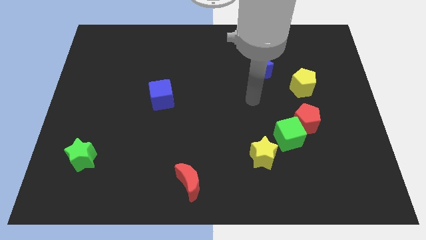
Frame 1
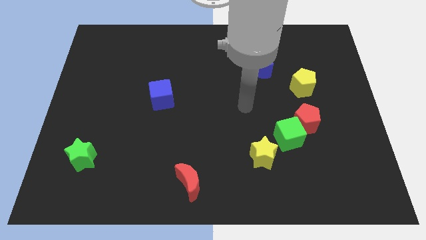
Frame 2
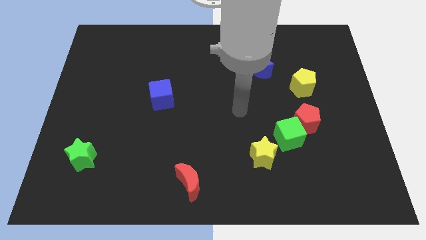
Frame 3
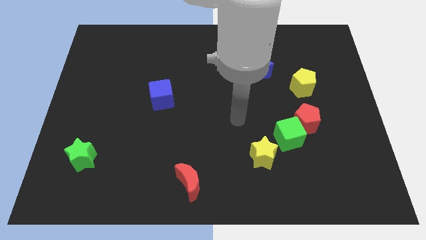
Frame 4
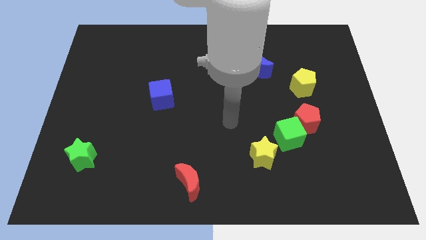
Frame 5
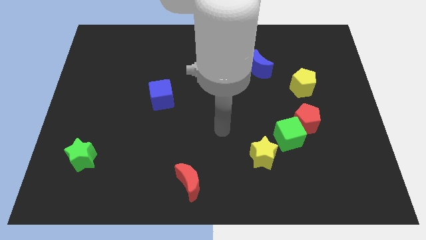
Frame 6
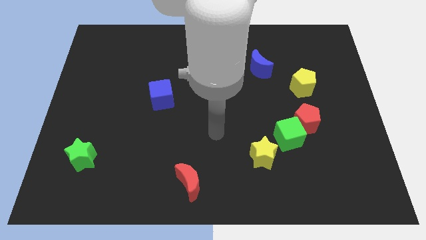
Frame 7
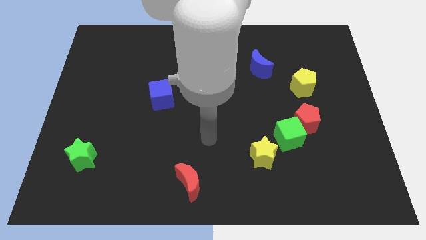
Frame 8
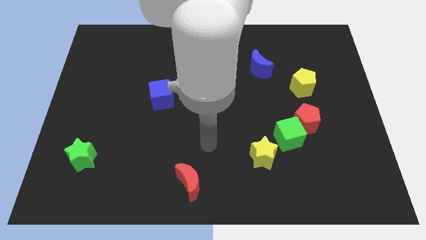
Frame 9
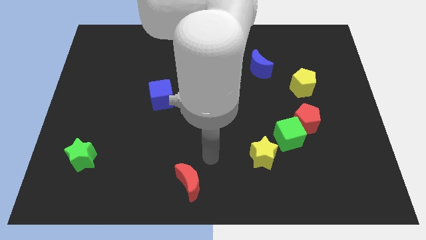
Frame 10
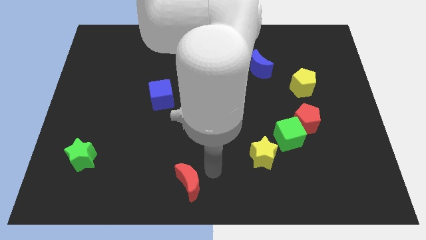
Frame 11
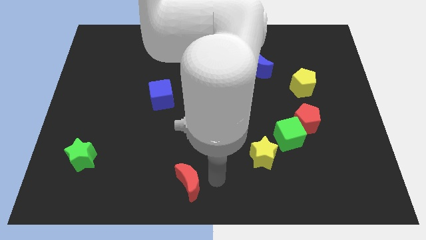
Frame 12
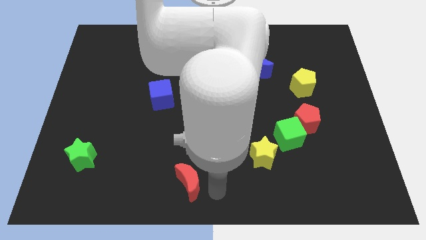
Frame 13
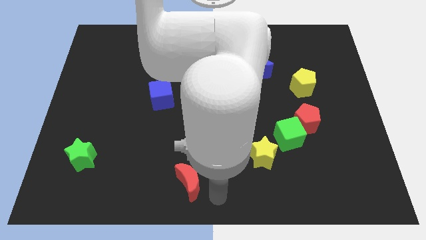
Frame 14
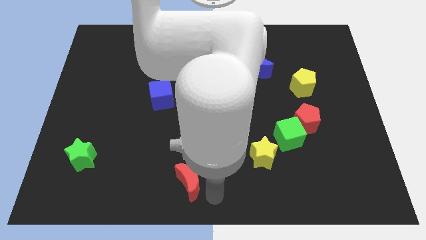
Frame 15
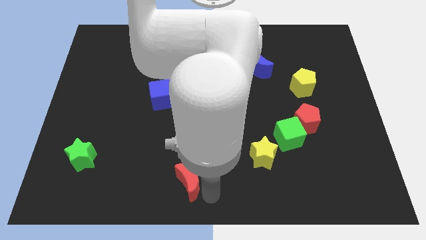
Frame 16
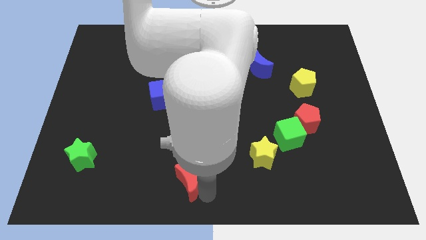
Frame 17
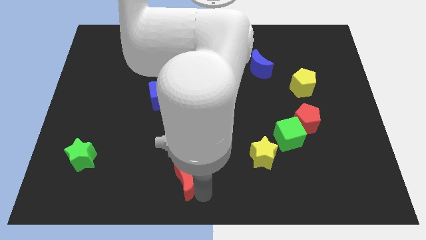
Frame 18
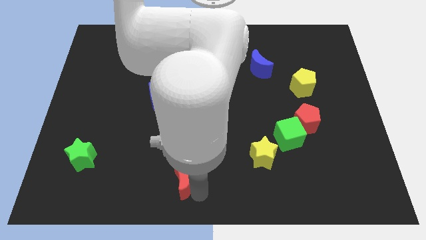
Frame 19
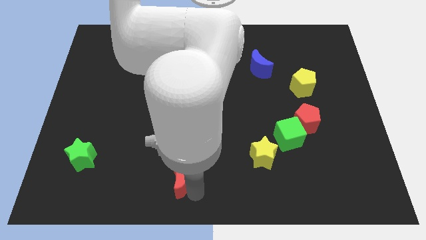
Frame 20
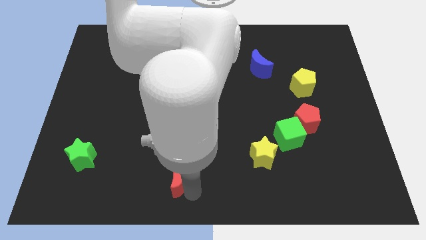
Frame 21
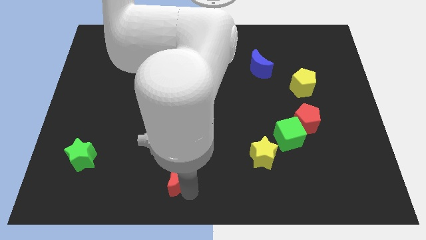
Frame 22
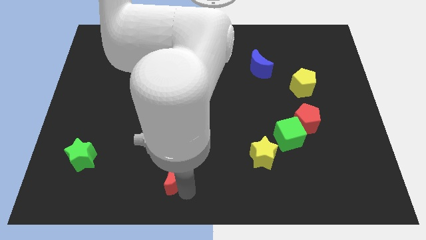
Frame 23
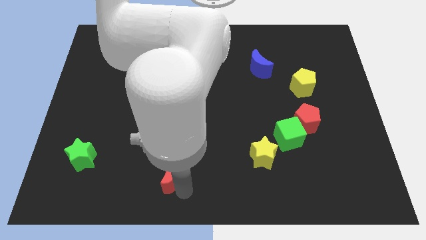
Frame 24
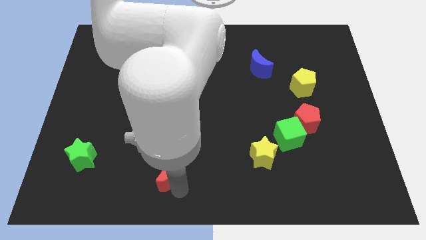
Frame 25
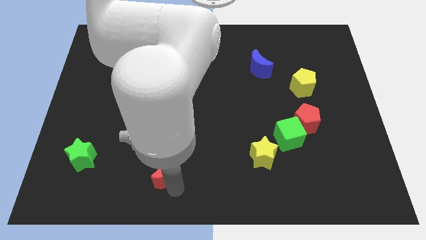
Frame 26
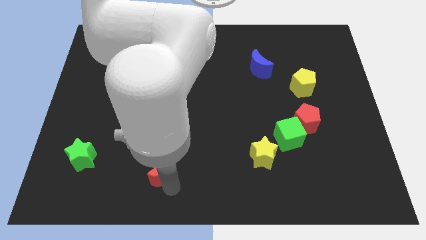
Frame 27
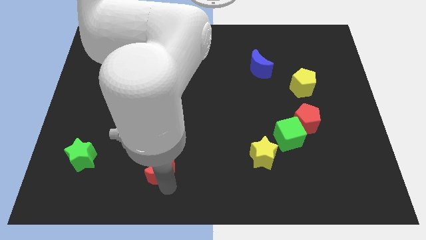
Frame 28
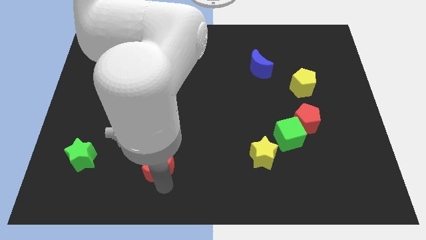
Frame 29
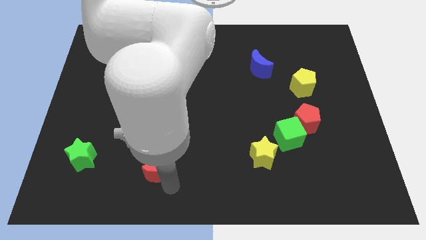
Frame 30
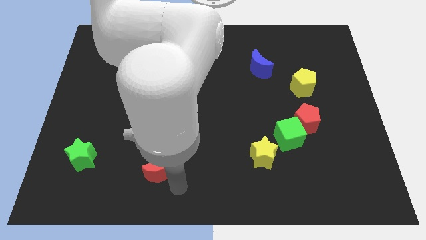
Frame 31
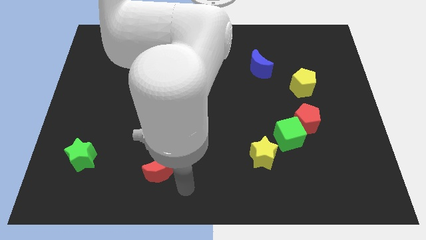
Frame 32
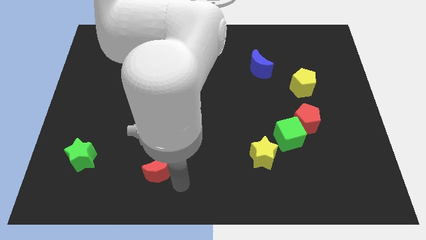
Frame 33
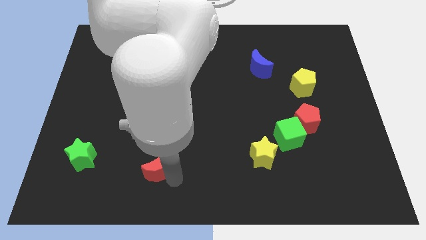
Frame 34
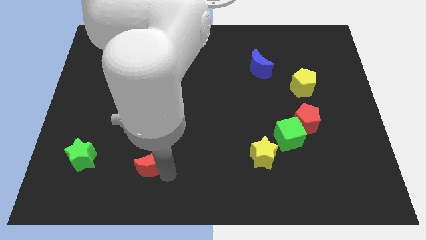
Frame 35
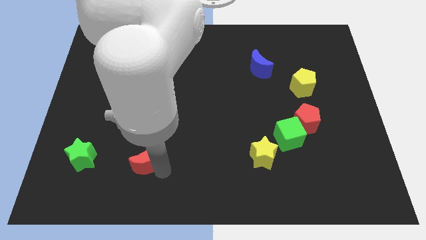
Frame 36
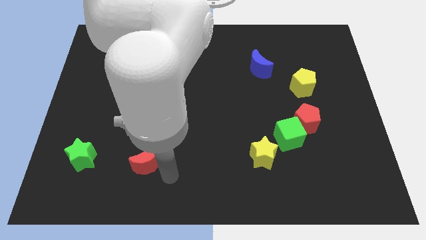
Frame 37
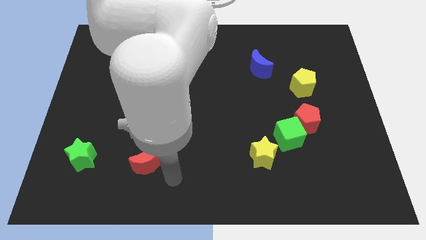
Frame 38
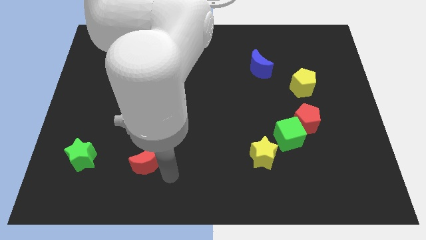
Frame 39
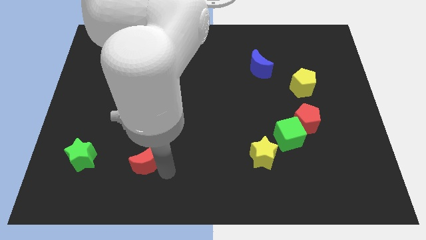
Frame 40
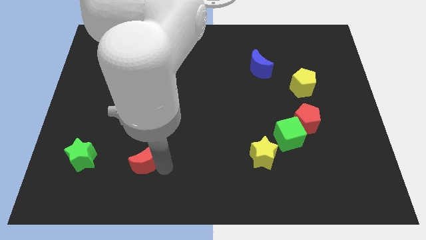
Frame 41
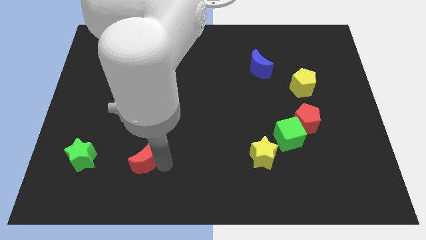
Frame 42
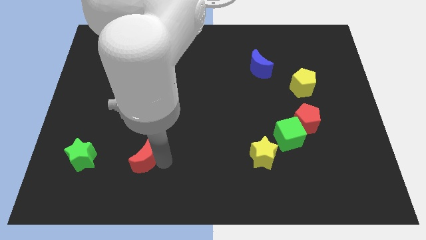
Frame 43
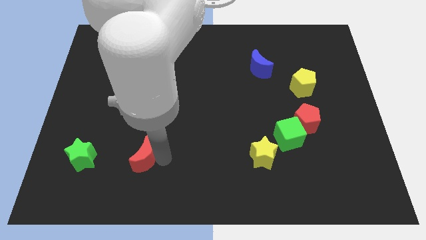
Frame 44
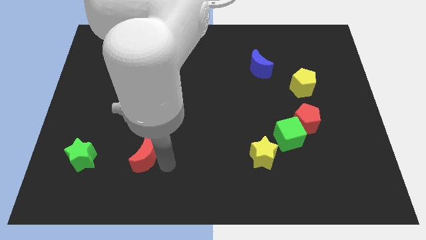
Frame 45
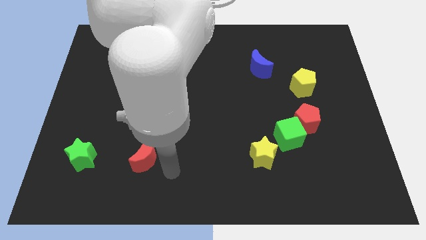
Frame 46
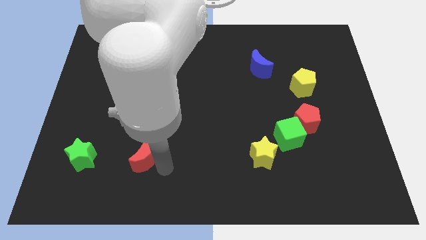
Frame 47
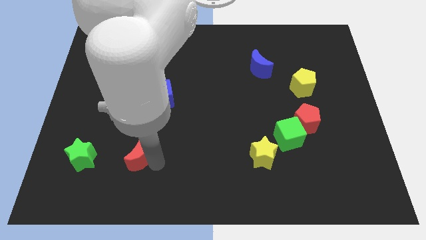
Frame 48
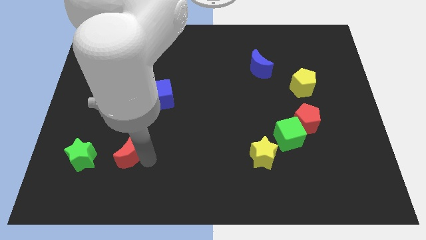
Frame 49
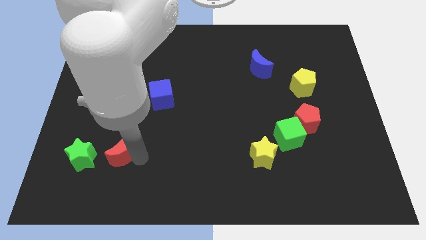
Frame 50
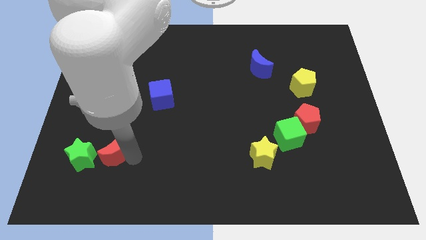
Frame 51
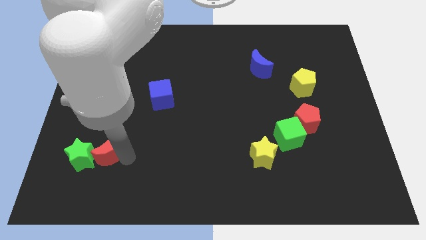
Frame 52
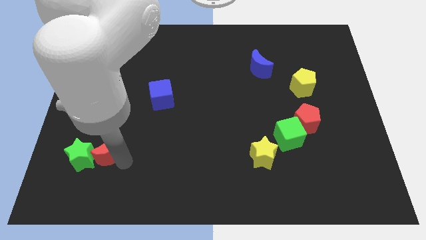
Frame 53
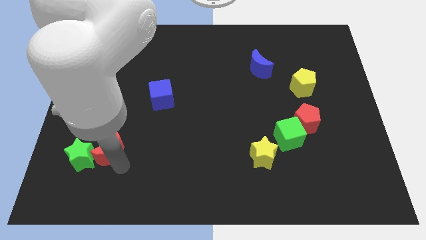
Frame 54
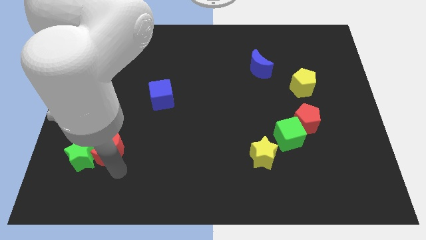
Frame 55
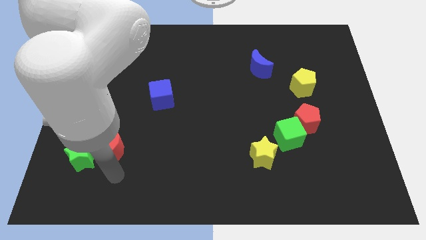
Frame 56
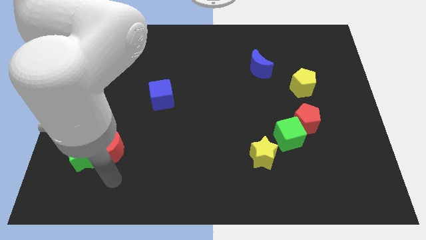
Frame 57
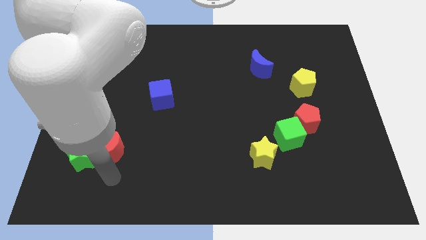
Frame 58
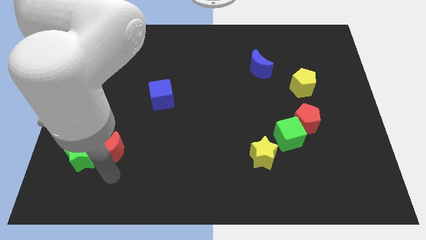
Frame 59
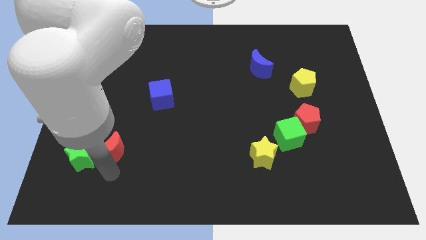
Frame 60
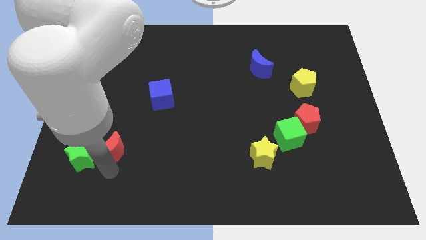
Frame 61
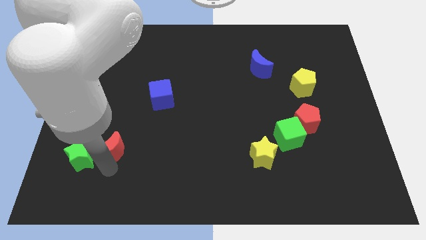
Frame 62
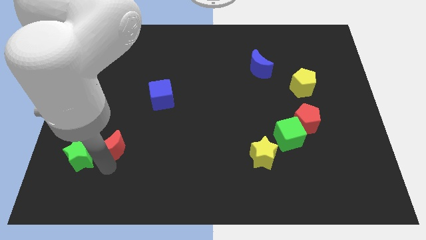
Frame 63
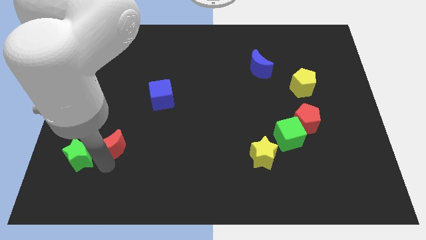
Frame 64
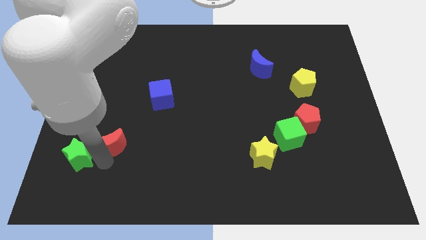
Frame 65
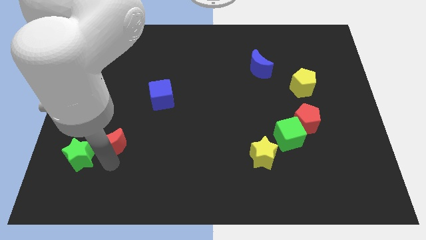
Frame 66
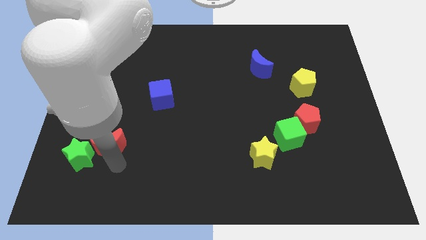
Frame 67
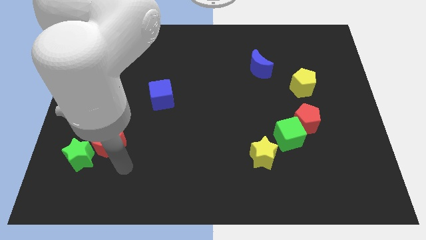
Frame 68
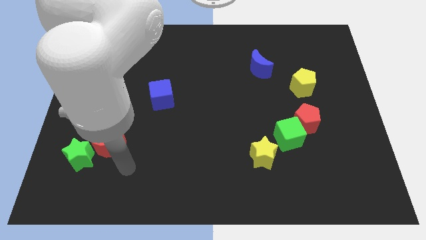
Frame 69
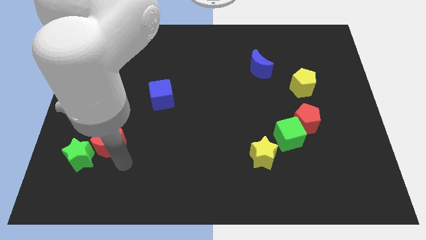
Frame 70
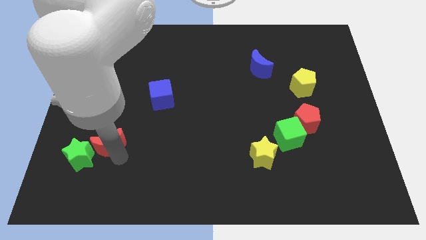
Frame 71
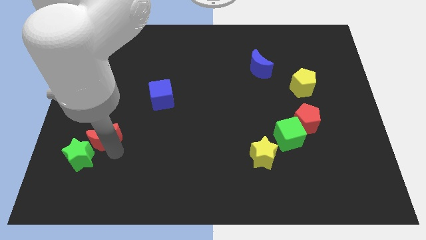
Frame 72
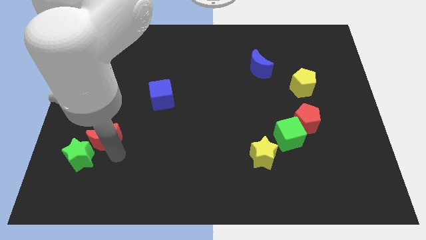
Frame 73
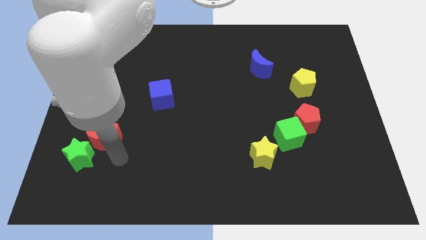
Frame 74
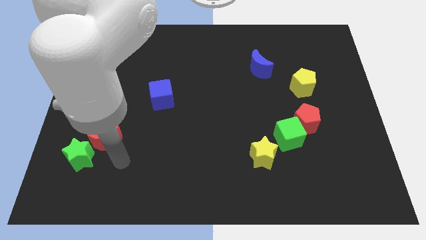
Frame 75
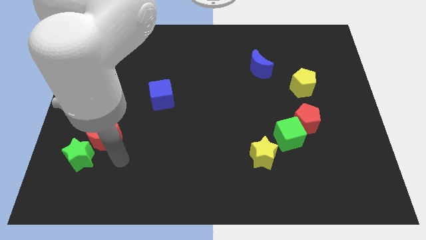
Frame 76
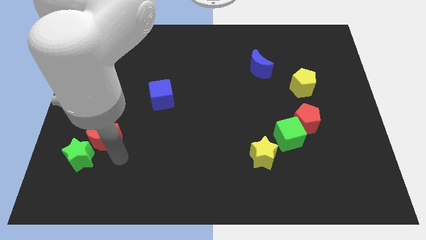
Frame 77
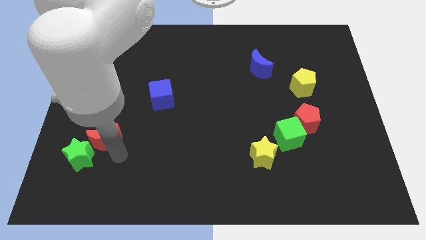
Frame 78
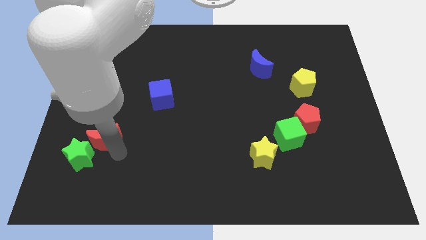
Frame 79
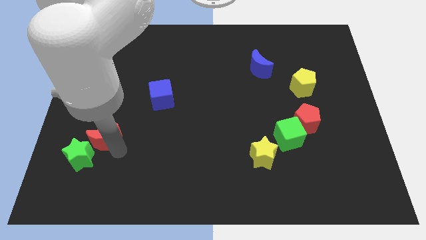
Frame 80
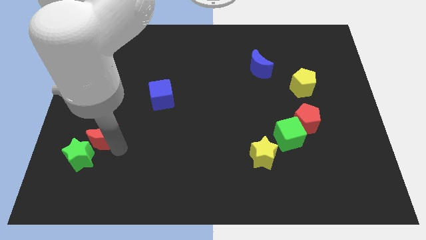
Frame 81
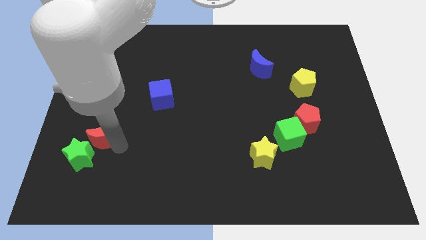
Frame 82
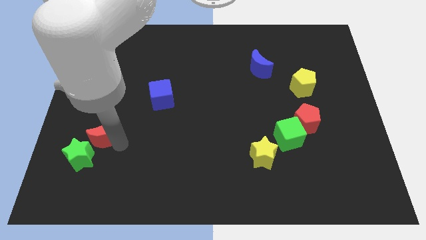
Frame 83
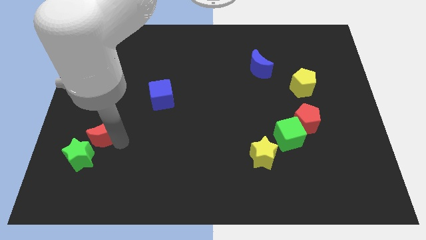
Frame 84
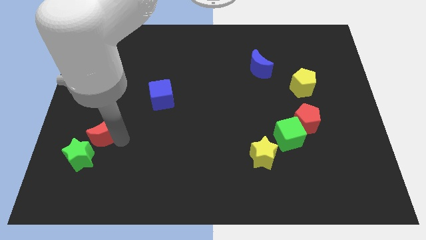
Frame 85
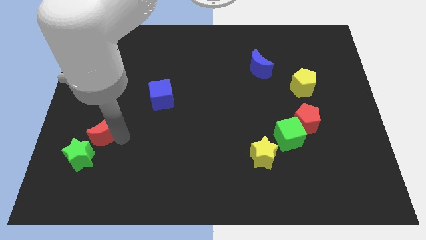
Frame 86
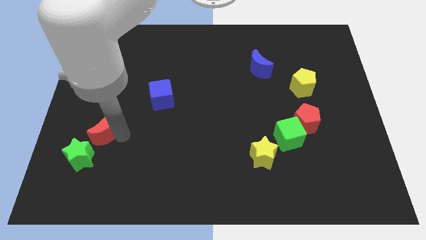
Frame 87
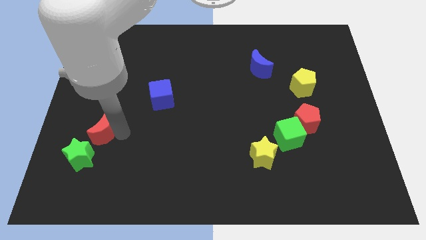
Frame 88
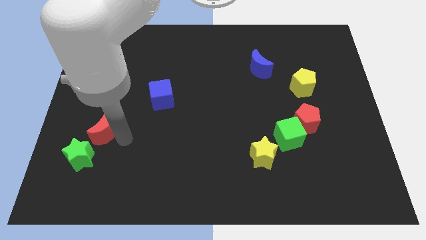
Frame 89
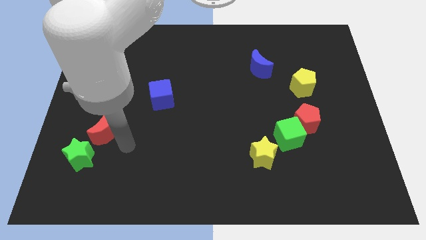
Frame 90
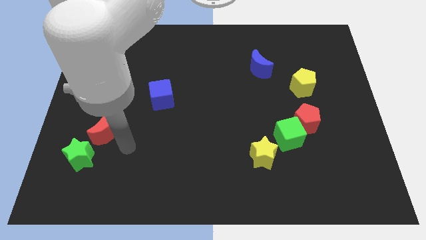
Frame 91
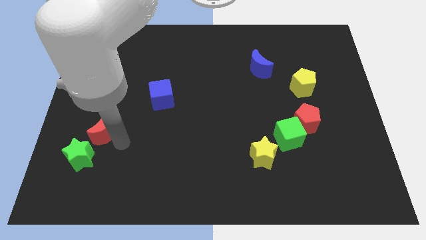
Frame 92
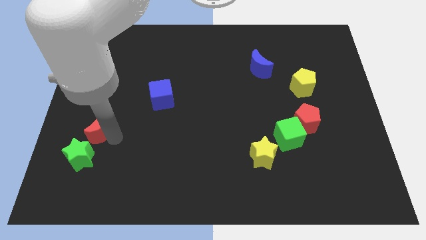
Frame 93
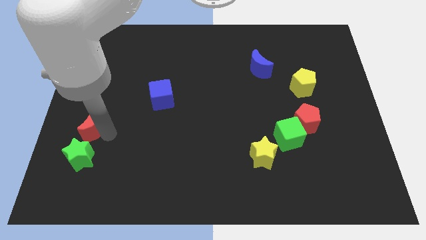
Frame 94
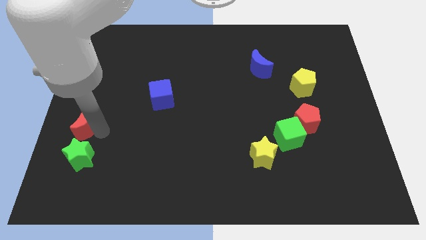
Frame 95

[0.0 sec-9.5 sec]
slide the red moon to the left side of the board
